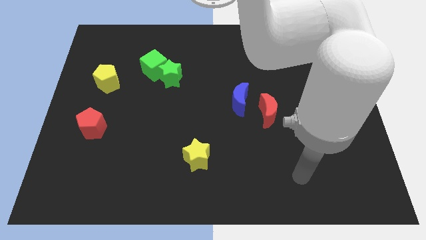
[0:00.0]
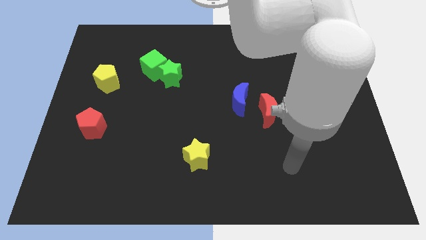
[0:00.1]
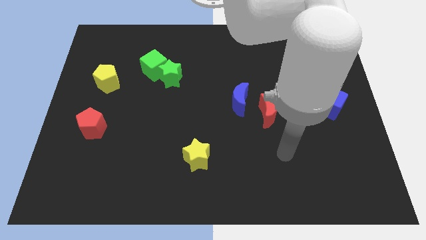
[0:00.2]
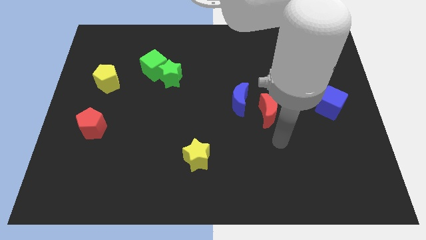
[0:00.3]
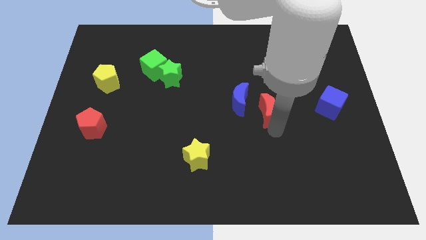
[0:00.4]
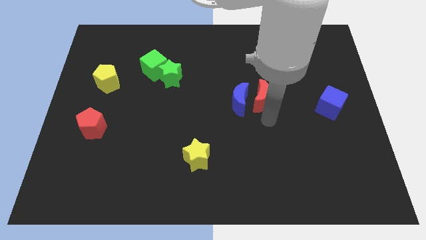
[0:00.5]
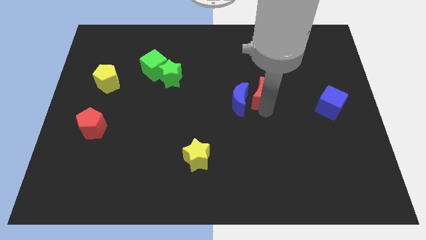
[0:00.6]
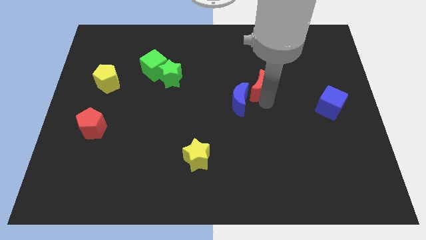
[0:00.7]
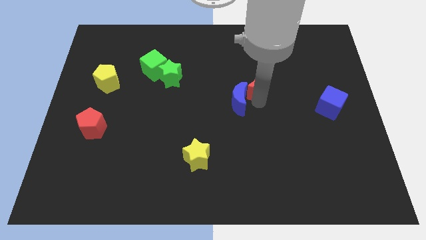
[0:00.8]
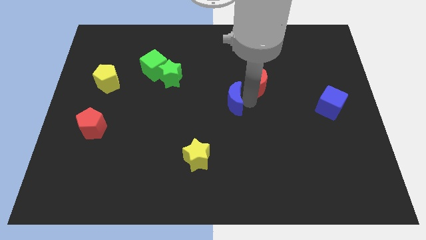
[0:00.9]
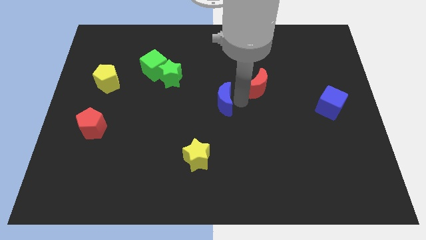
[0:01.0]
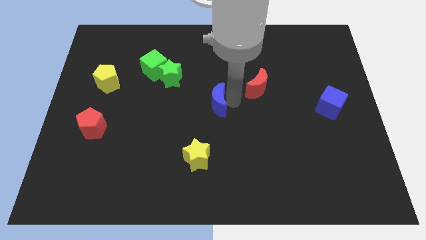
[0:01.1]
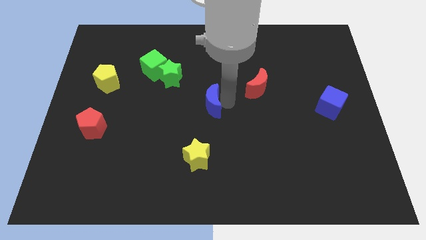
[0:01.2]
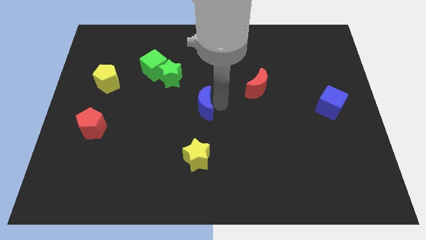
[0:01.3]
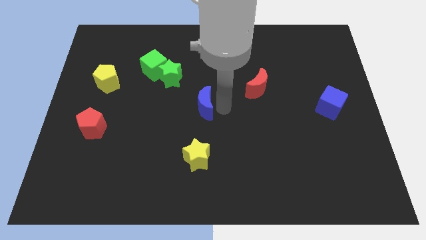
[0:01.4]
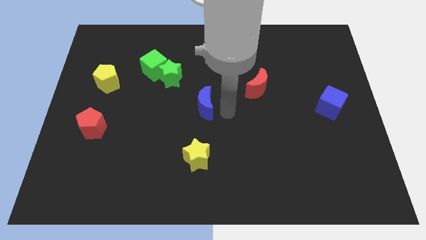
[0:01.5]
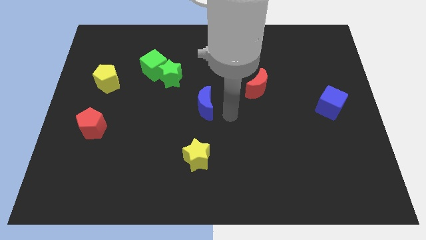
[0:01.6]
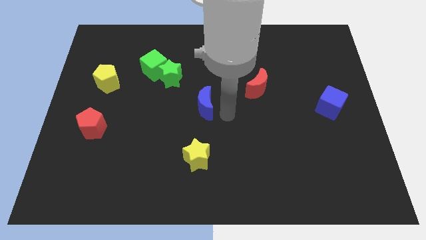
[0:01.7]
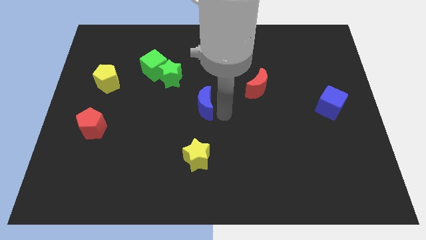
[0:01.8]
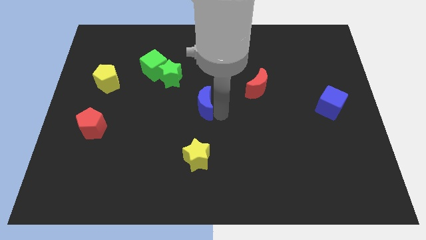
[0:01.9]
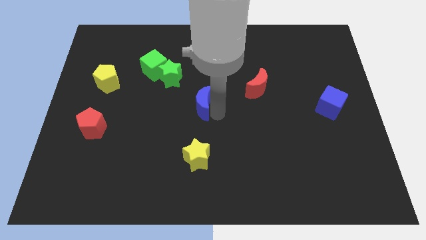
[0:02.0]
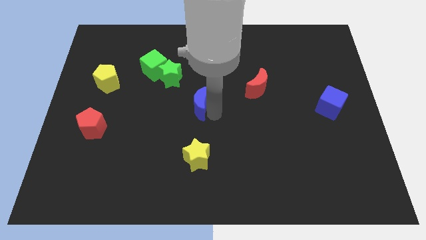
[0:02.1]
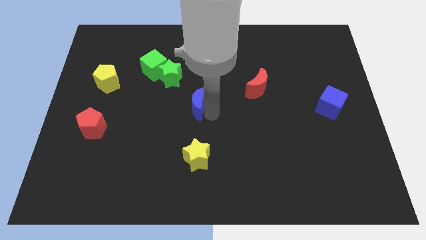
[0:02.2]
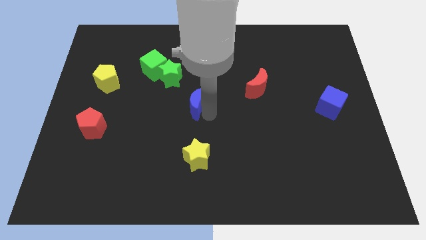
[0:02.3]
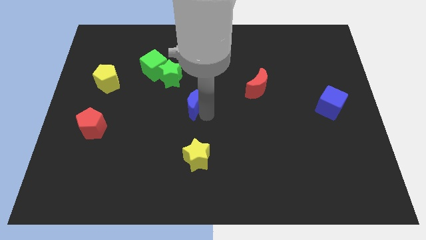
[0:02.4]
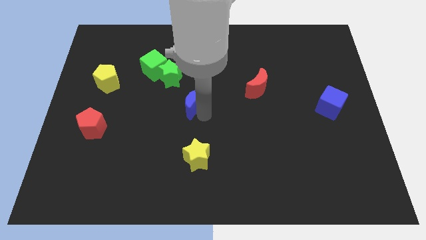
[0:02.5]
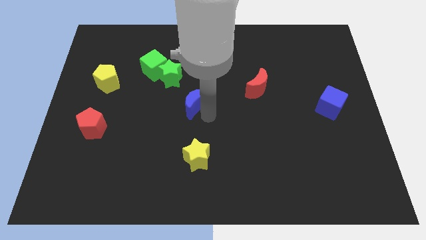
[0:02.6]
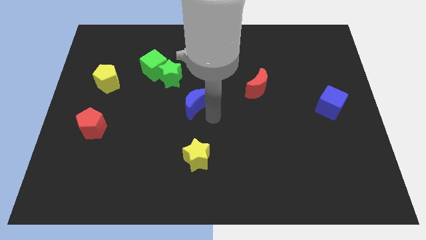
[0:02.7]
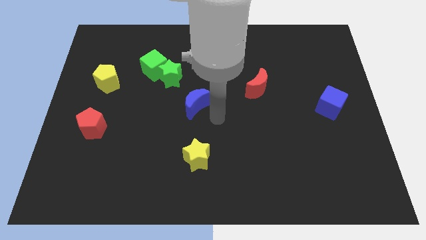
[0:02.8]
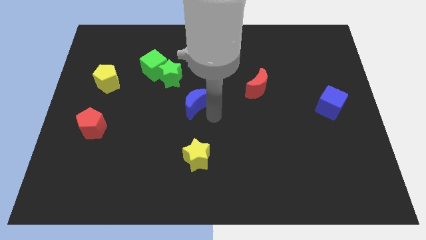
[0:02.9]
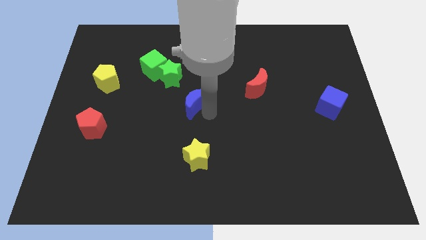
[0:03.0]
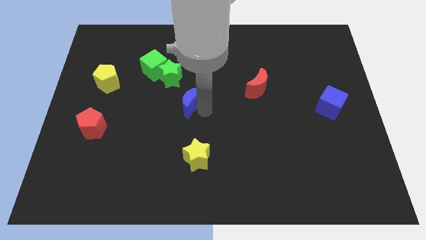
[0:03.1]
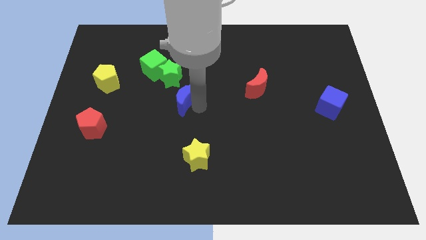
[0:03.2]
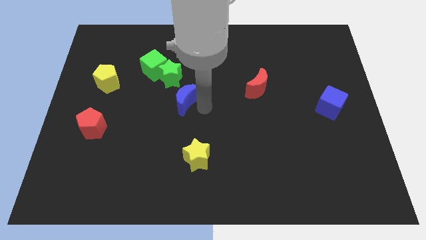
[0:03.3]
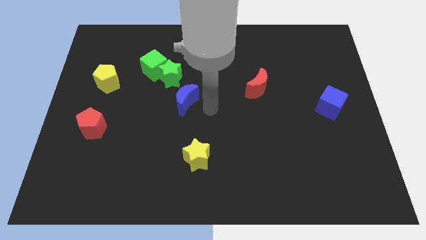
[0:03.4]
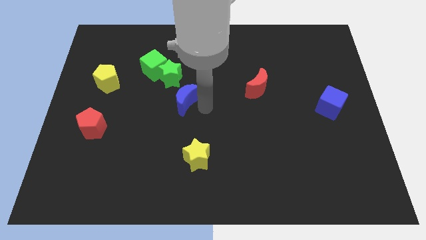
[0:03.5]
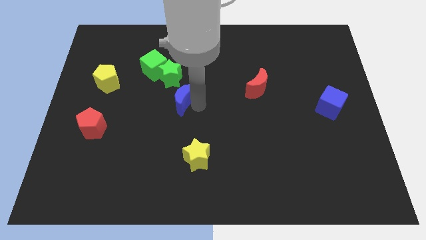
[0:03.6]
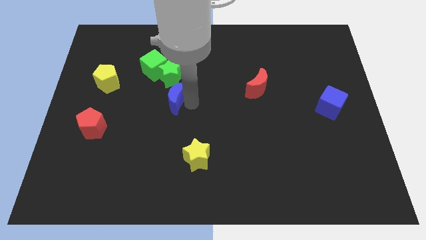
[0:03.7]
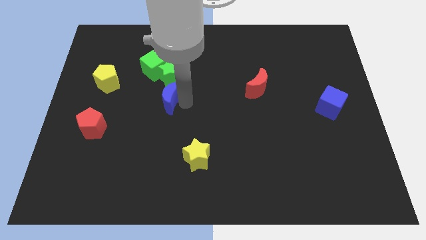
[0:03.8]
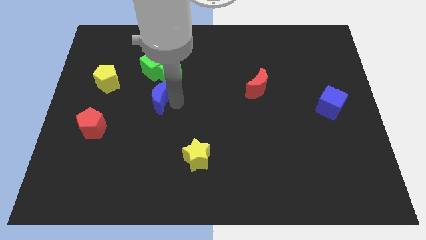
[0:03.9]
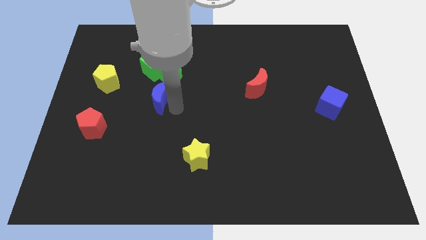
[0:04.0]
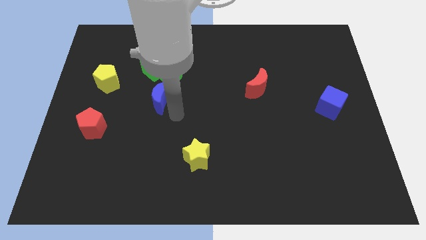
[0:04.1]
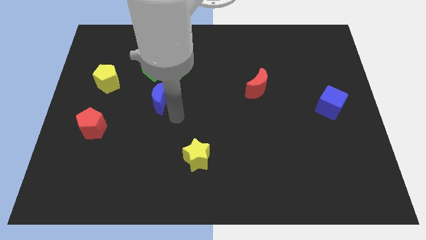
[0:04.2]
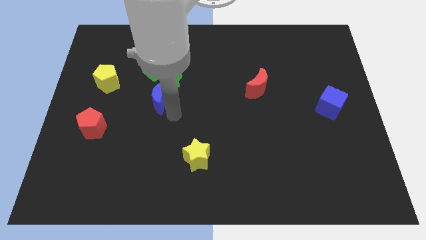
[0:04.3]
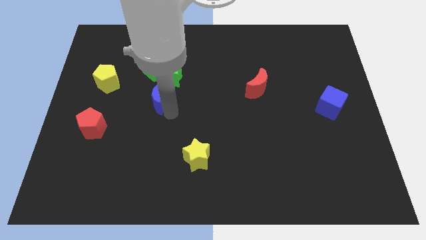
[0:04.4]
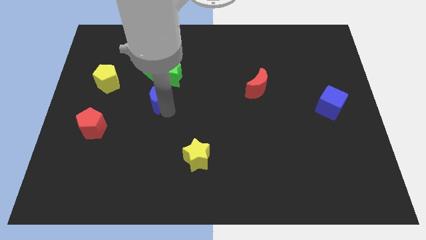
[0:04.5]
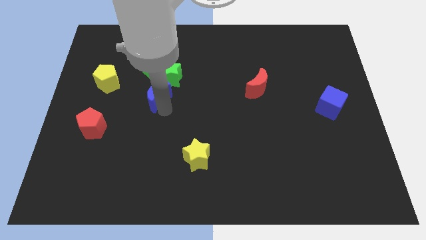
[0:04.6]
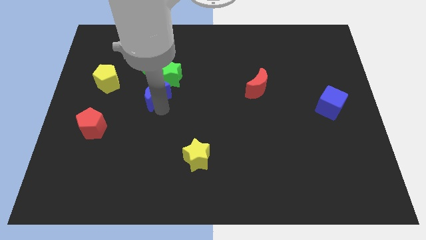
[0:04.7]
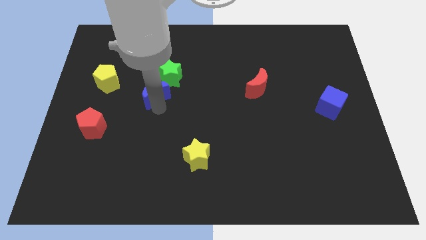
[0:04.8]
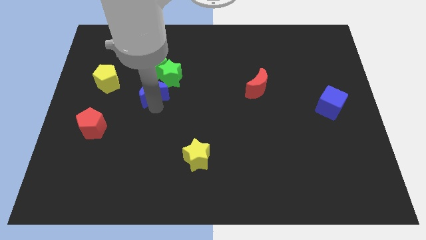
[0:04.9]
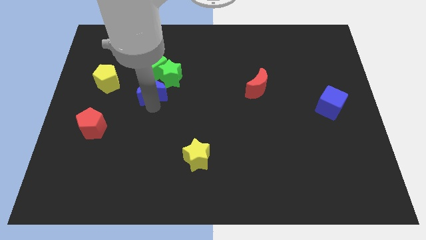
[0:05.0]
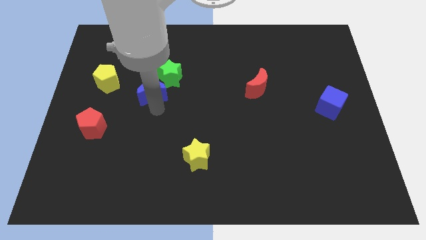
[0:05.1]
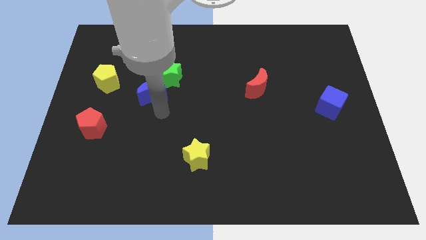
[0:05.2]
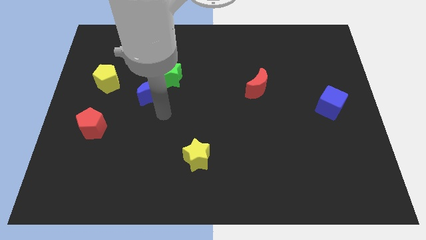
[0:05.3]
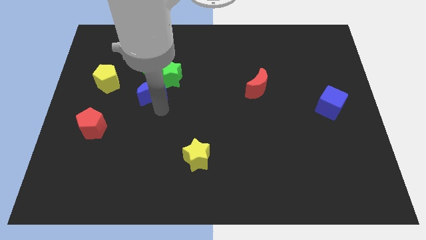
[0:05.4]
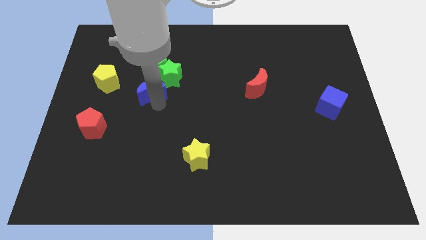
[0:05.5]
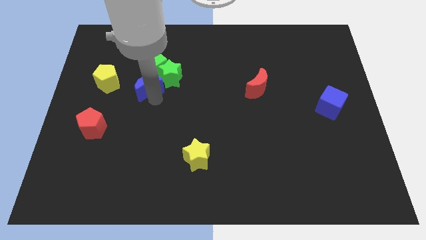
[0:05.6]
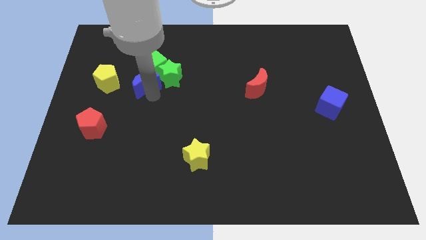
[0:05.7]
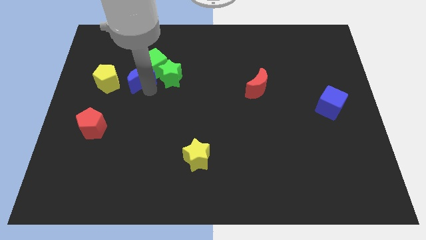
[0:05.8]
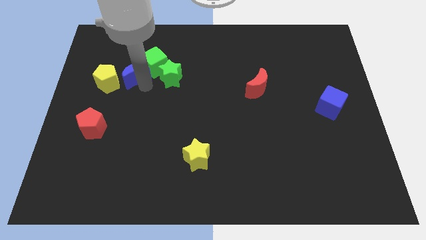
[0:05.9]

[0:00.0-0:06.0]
slide the blue moon diagonally up and to the right of the yellow pentagon

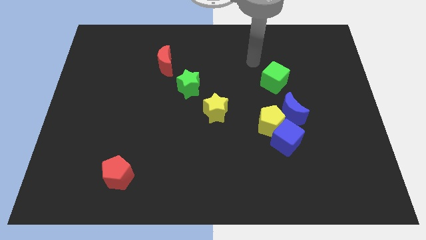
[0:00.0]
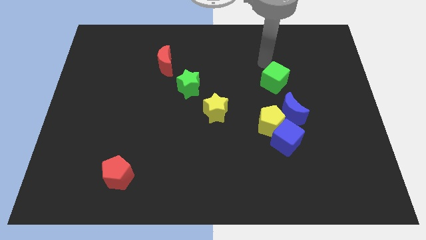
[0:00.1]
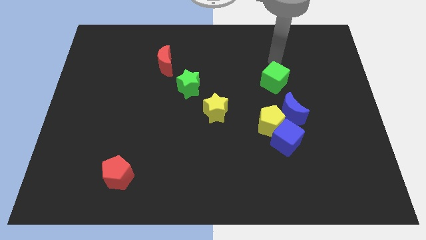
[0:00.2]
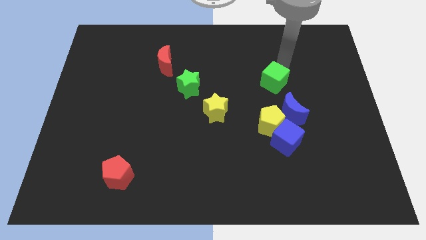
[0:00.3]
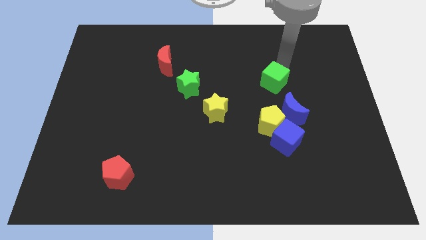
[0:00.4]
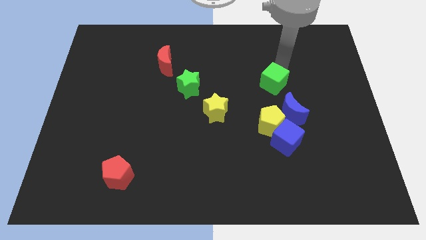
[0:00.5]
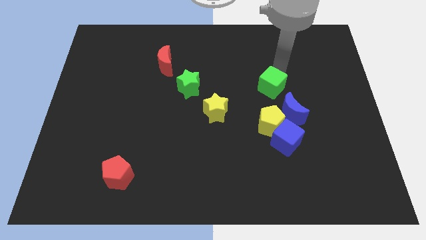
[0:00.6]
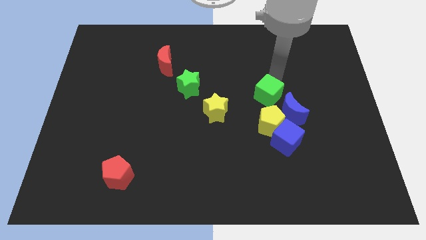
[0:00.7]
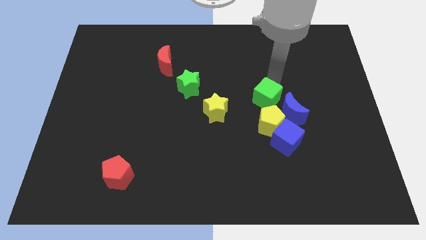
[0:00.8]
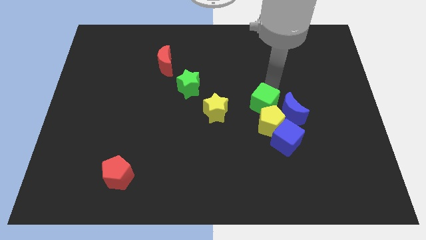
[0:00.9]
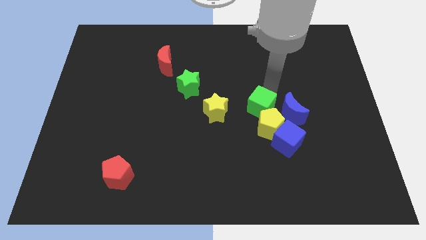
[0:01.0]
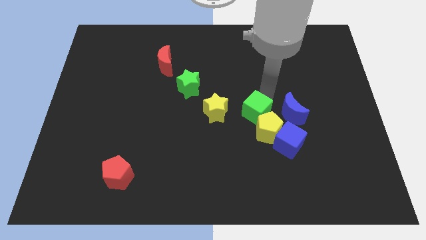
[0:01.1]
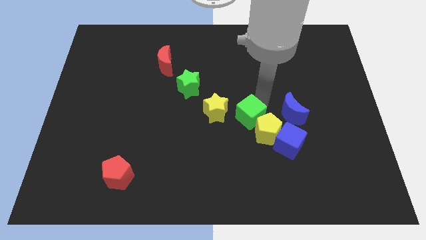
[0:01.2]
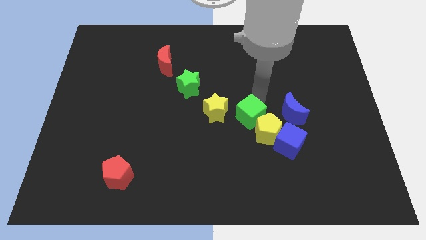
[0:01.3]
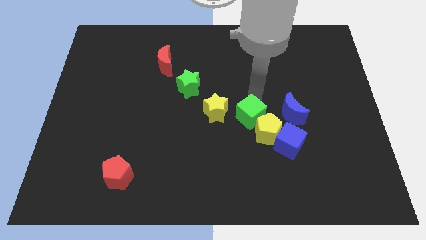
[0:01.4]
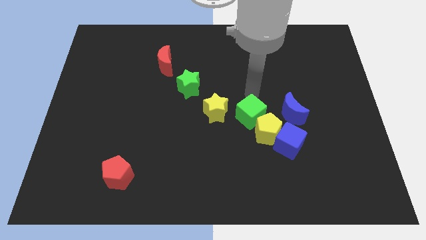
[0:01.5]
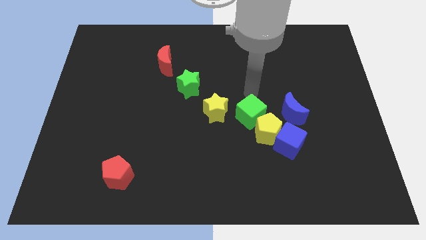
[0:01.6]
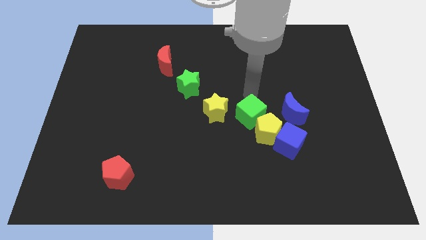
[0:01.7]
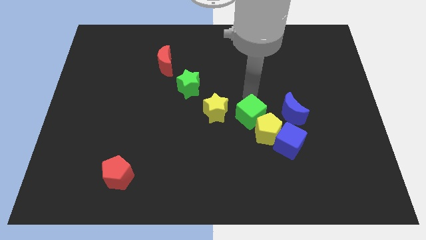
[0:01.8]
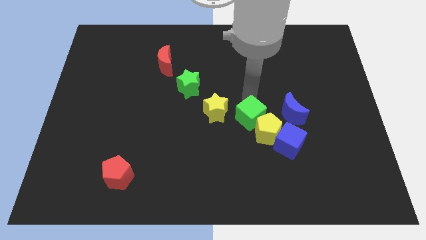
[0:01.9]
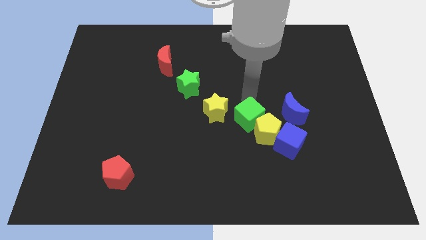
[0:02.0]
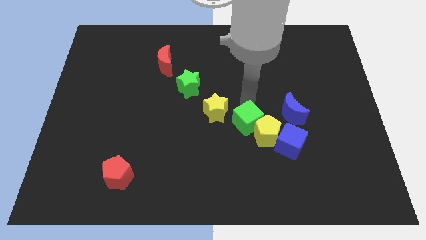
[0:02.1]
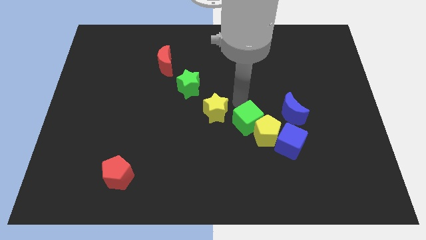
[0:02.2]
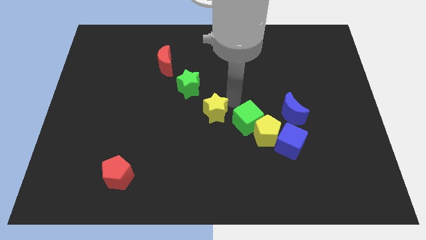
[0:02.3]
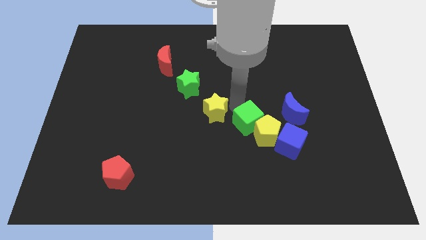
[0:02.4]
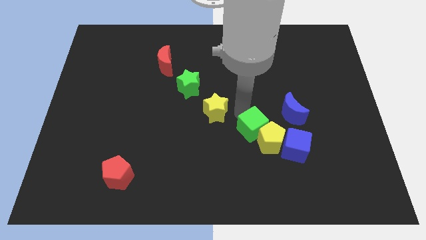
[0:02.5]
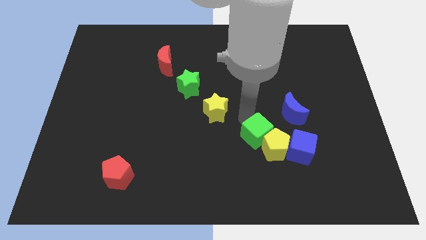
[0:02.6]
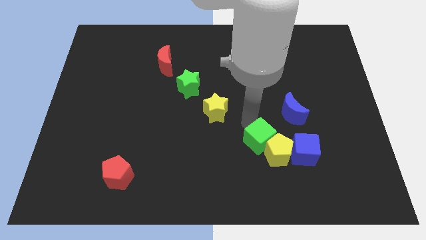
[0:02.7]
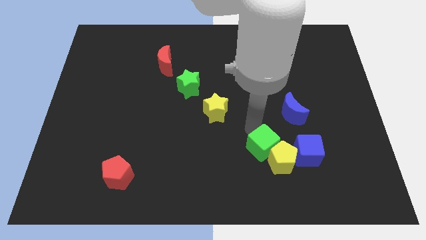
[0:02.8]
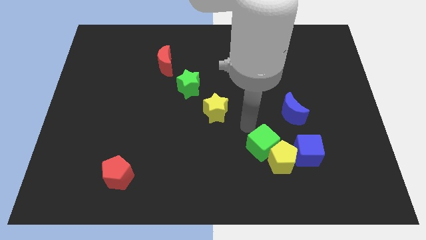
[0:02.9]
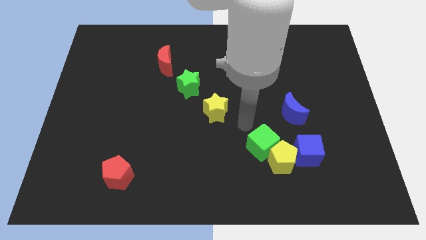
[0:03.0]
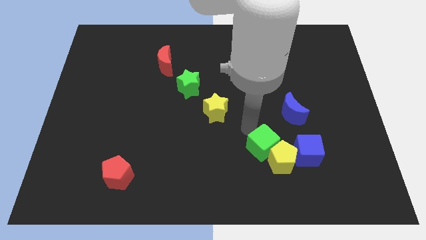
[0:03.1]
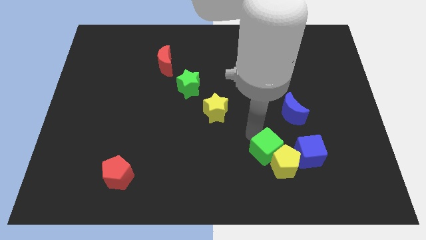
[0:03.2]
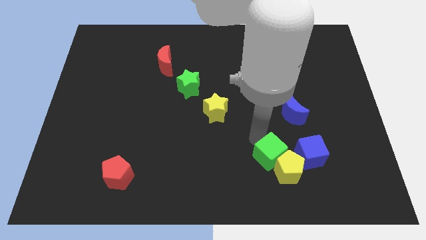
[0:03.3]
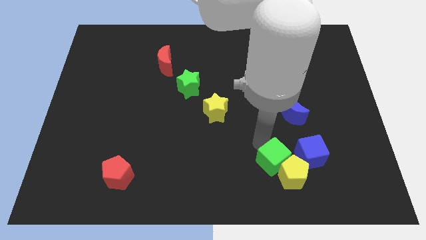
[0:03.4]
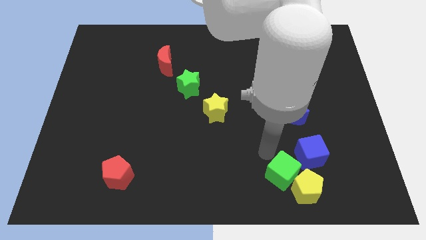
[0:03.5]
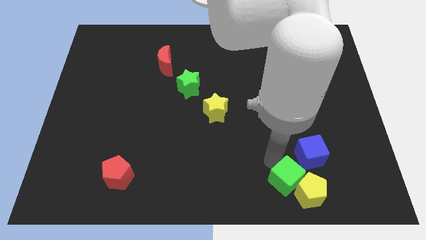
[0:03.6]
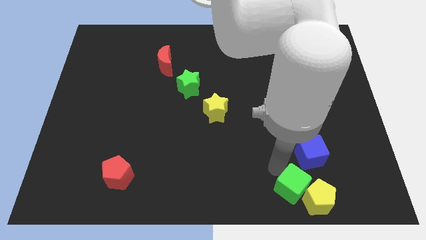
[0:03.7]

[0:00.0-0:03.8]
put the green cube to the bottom side of the blue cube
